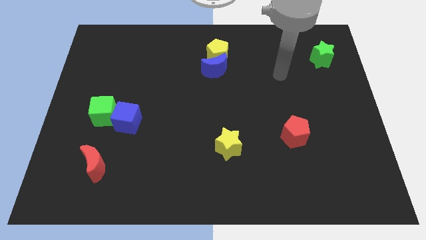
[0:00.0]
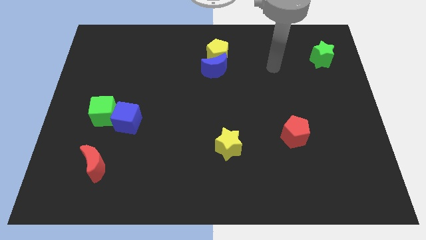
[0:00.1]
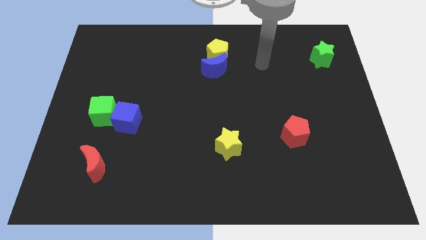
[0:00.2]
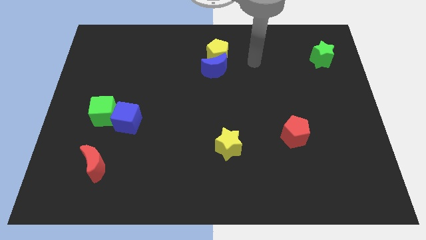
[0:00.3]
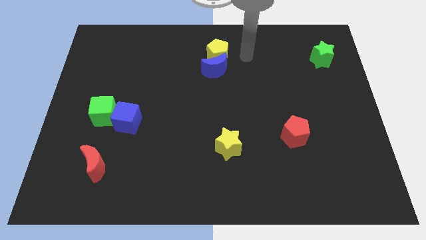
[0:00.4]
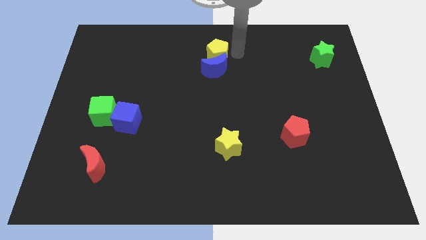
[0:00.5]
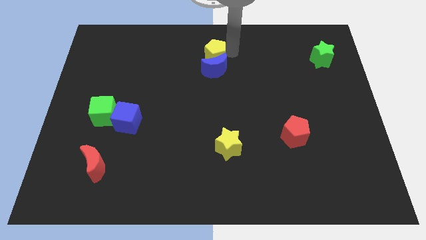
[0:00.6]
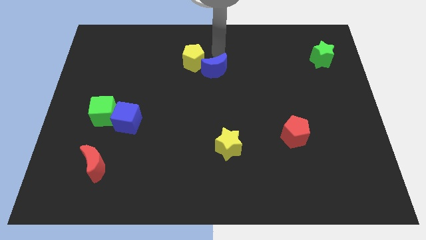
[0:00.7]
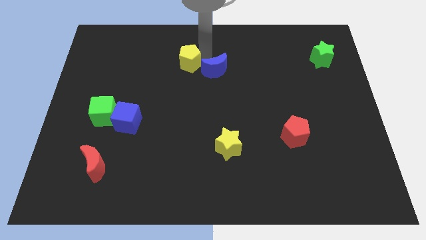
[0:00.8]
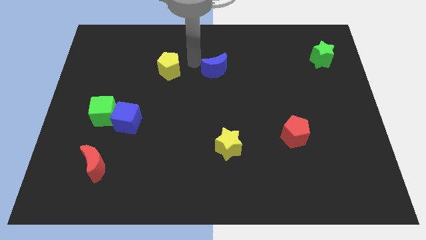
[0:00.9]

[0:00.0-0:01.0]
move the blue moon away from the yellow pentagon

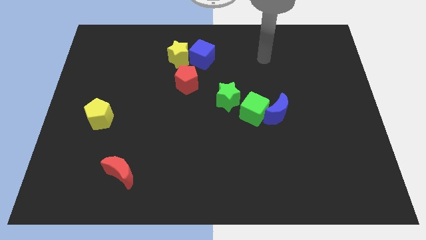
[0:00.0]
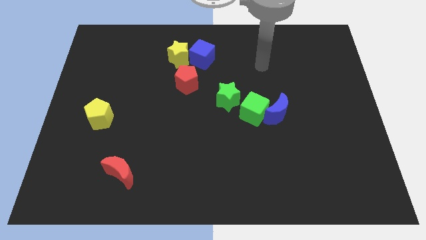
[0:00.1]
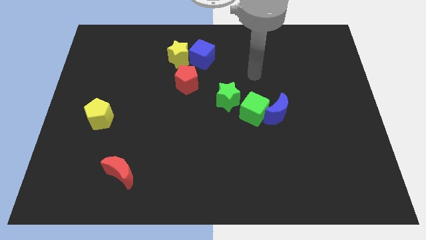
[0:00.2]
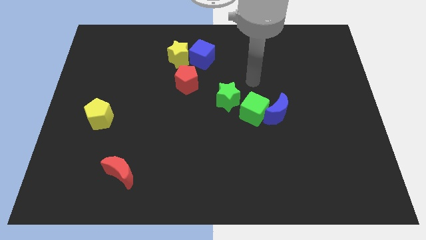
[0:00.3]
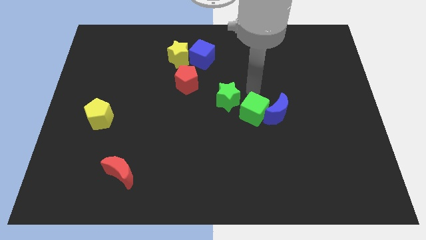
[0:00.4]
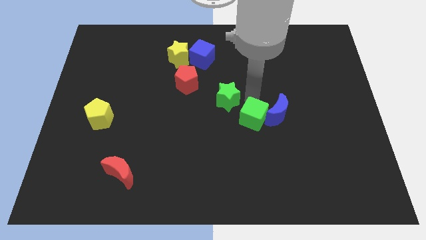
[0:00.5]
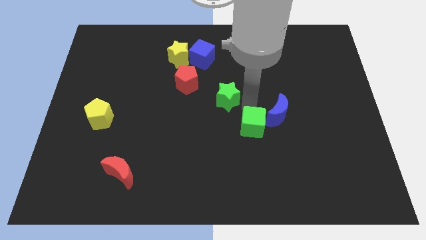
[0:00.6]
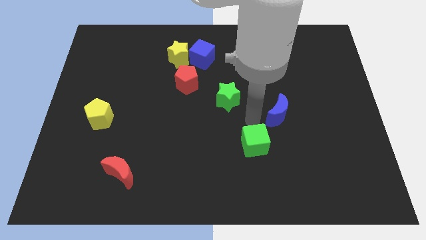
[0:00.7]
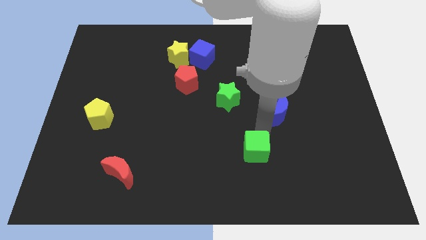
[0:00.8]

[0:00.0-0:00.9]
move the blue moon away from the green cube

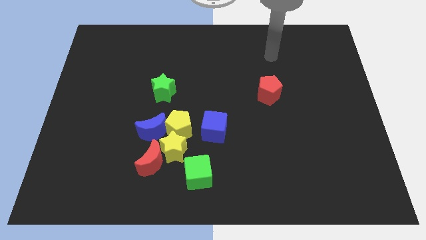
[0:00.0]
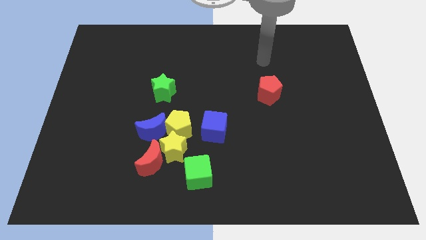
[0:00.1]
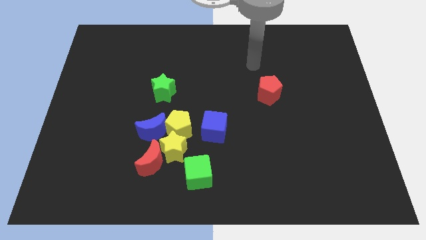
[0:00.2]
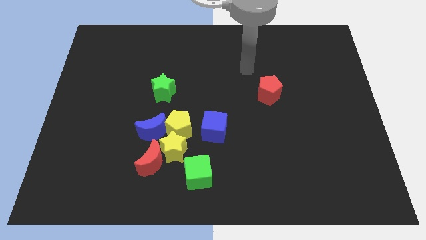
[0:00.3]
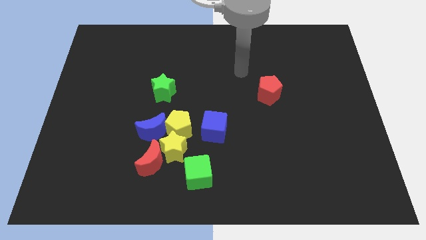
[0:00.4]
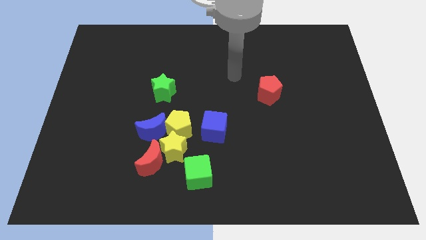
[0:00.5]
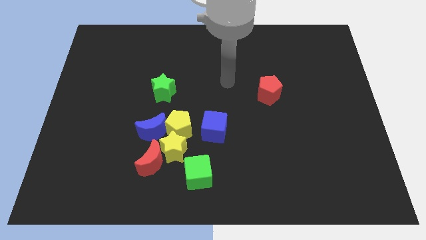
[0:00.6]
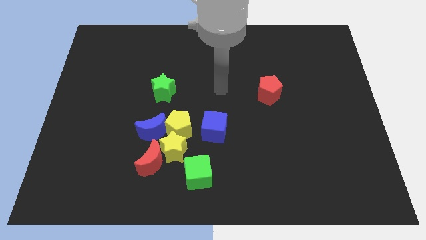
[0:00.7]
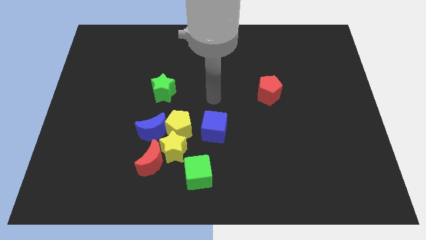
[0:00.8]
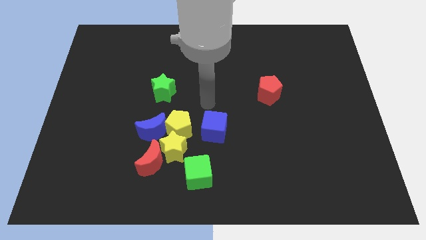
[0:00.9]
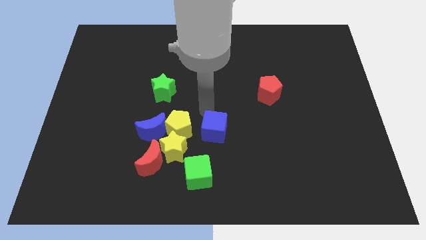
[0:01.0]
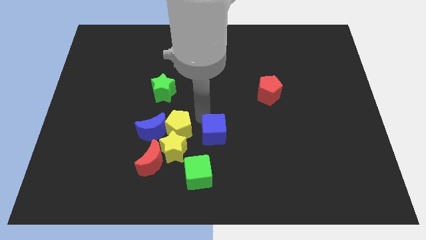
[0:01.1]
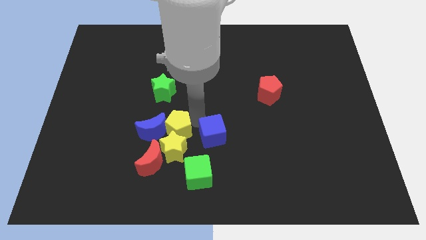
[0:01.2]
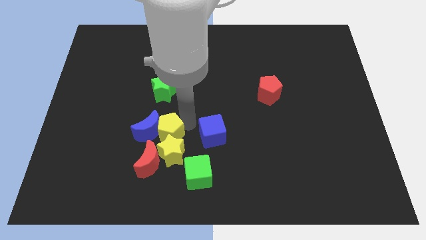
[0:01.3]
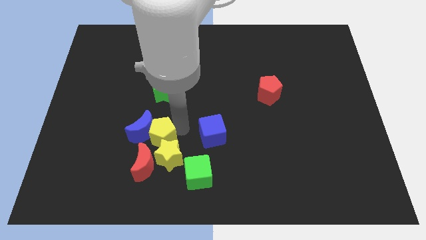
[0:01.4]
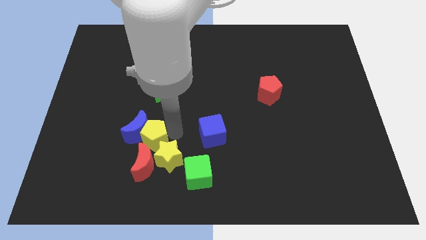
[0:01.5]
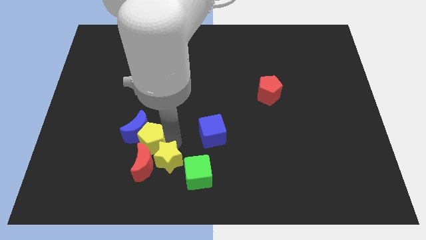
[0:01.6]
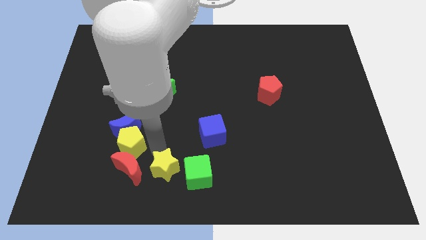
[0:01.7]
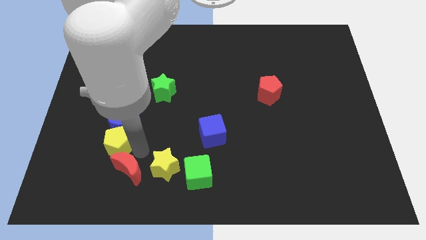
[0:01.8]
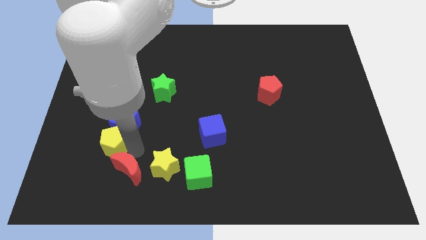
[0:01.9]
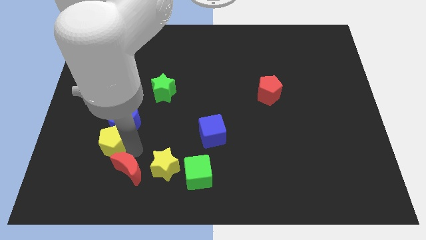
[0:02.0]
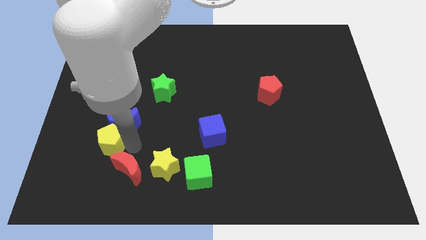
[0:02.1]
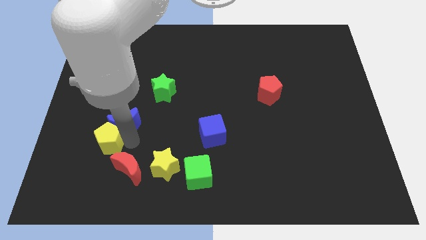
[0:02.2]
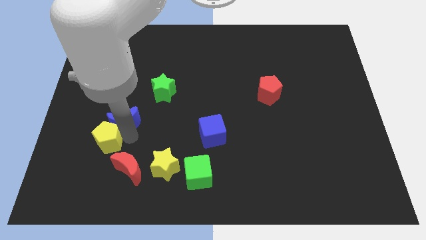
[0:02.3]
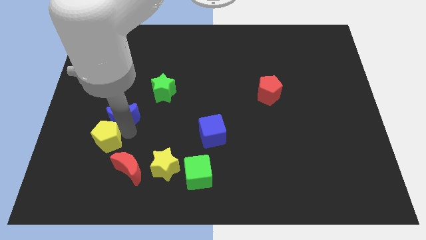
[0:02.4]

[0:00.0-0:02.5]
pull the blue moon apart from the yellow pentagon, yellow star, and red moon

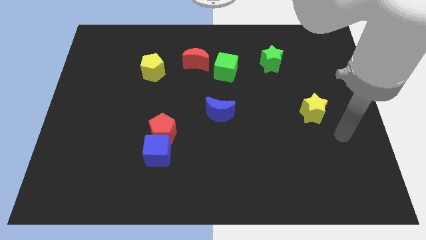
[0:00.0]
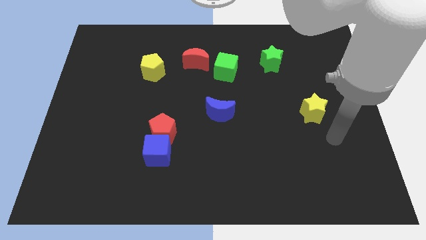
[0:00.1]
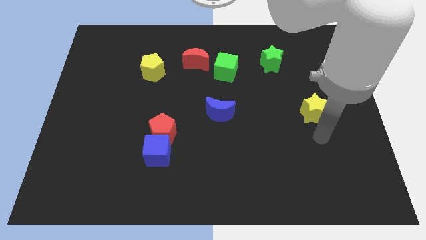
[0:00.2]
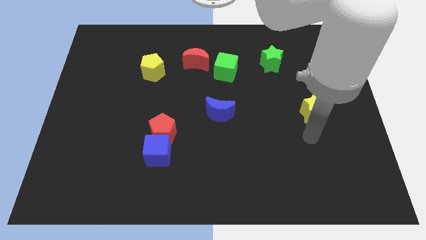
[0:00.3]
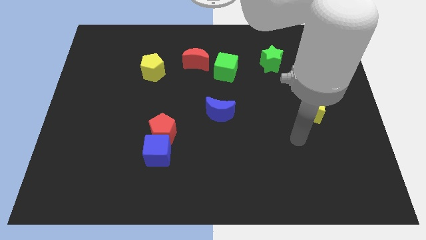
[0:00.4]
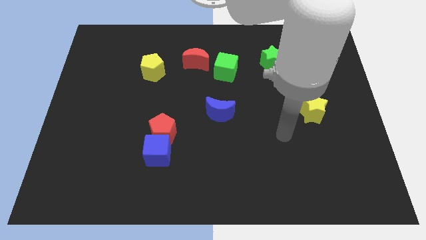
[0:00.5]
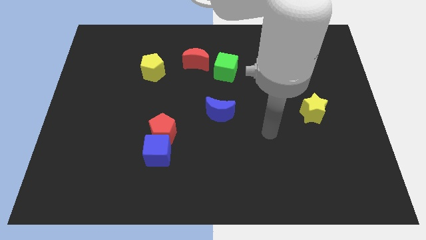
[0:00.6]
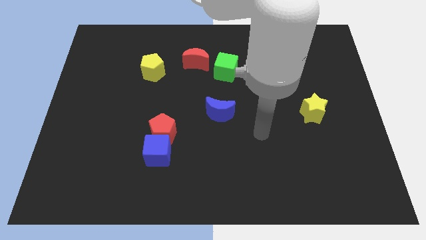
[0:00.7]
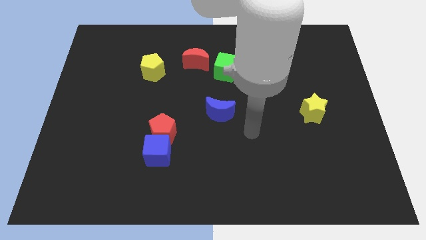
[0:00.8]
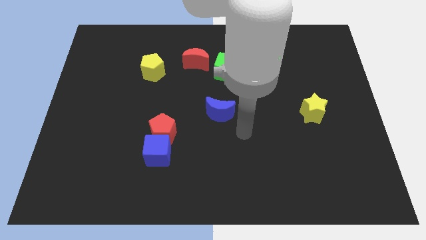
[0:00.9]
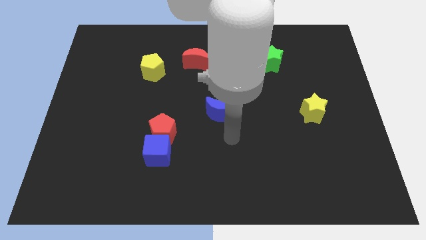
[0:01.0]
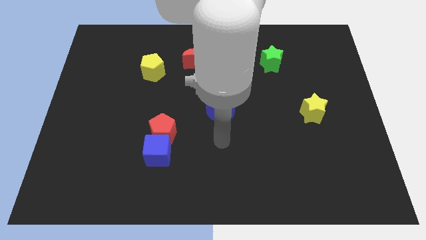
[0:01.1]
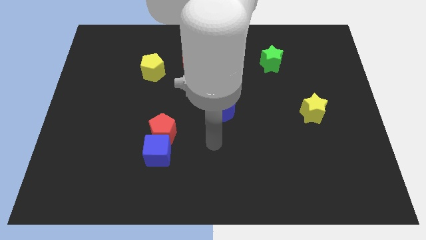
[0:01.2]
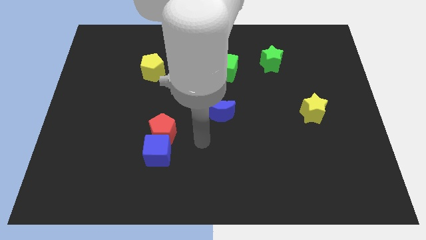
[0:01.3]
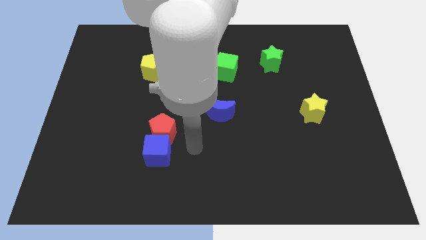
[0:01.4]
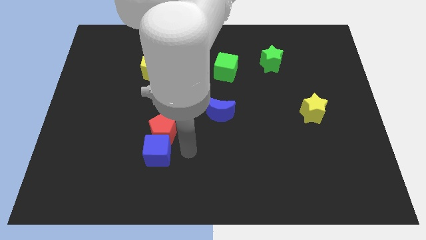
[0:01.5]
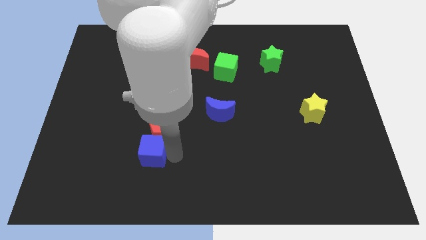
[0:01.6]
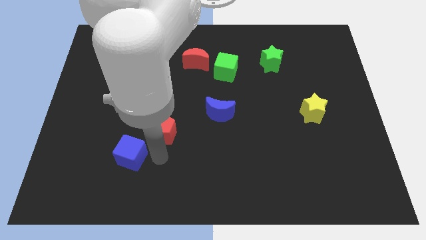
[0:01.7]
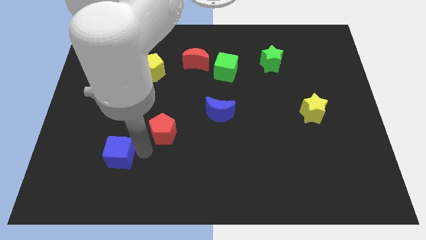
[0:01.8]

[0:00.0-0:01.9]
pull the red pentagon apart from the blue cube

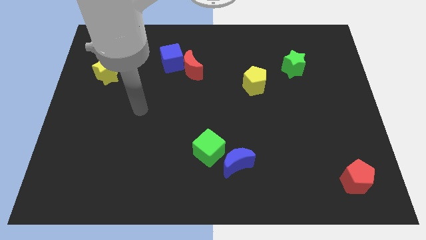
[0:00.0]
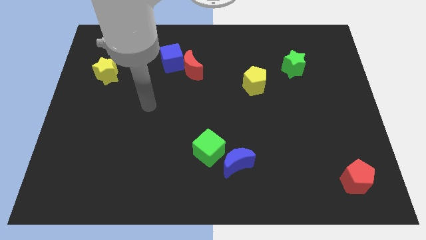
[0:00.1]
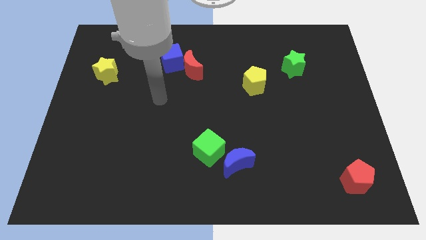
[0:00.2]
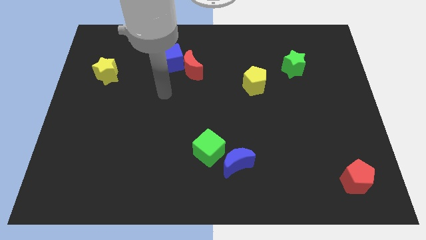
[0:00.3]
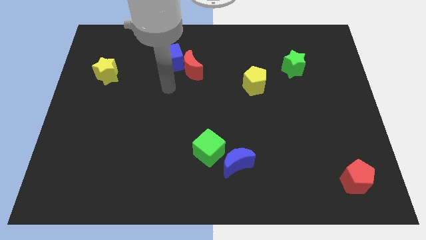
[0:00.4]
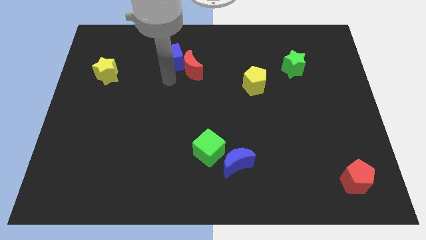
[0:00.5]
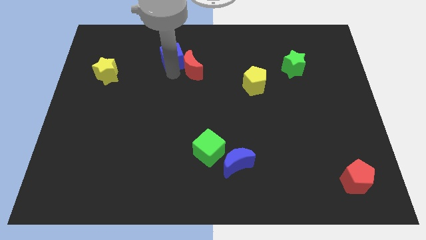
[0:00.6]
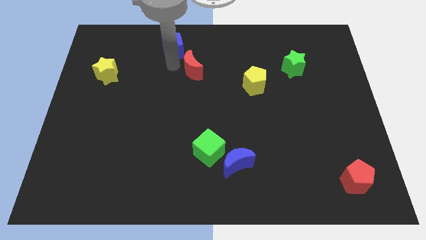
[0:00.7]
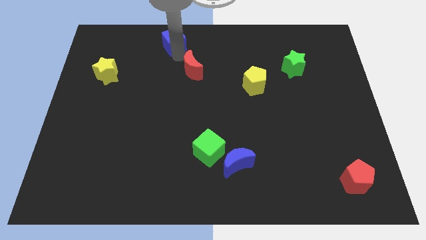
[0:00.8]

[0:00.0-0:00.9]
move the red moon away from the blue cube

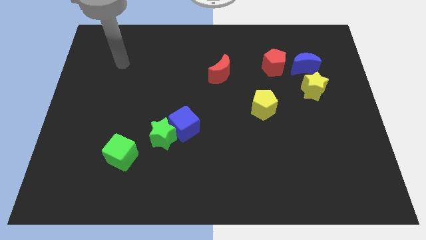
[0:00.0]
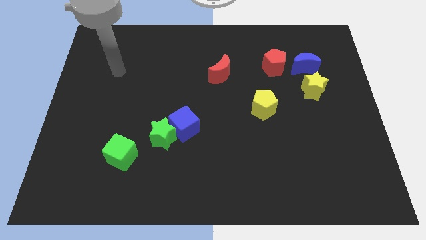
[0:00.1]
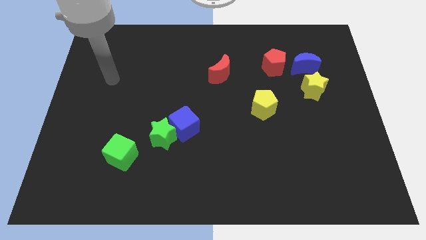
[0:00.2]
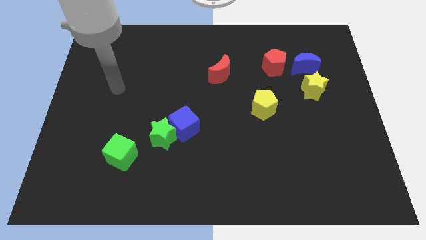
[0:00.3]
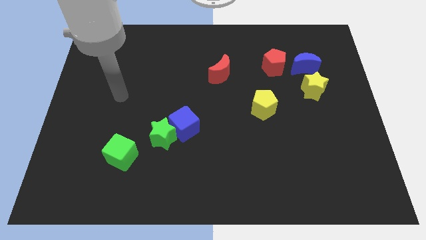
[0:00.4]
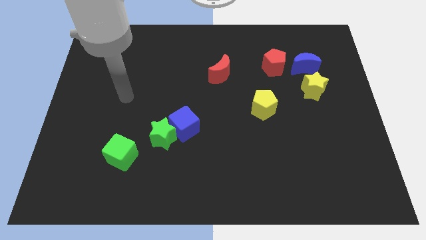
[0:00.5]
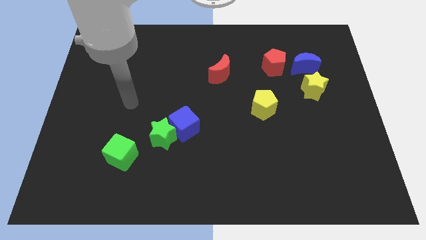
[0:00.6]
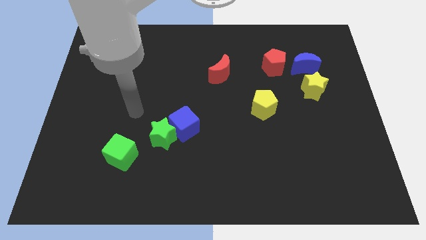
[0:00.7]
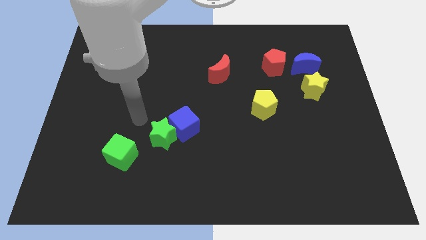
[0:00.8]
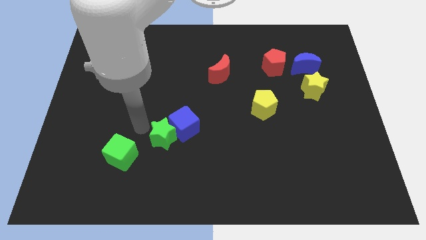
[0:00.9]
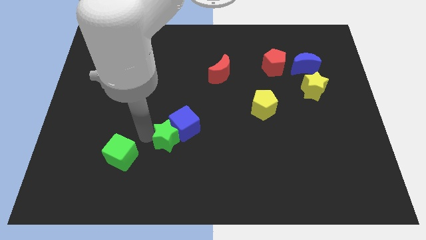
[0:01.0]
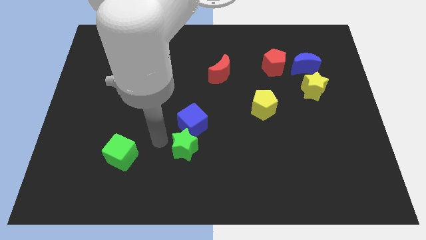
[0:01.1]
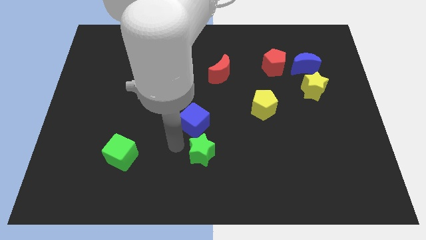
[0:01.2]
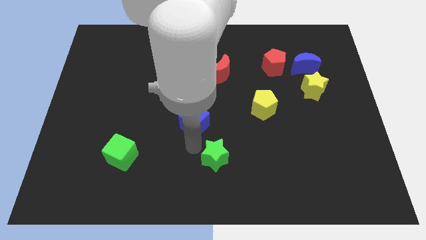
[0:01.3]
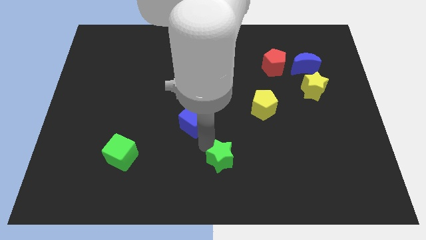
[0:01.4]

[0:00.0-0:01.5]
pull the blue cube apart from the green star

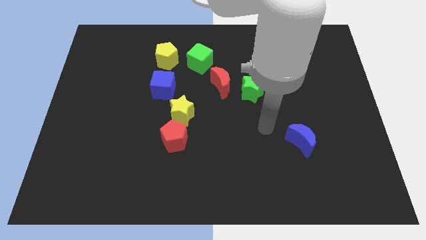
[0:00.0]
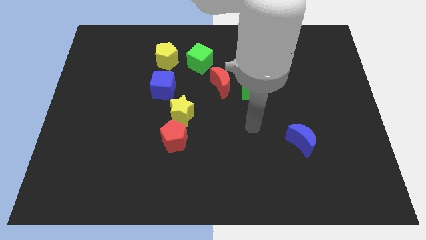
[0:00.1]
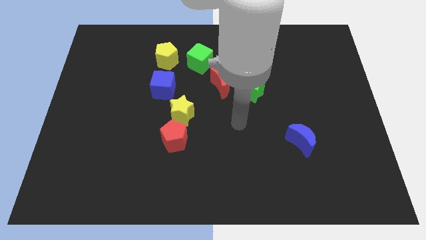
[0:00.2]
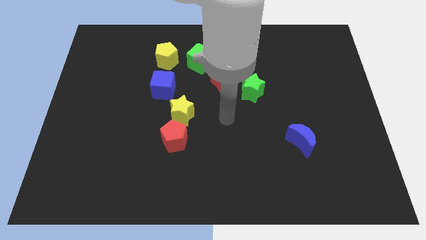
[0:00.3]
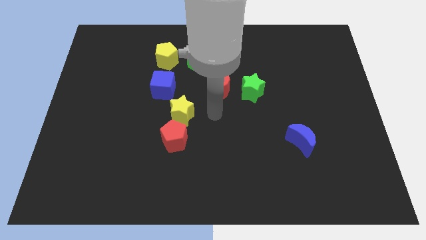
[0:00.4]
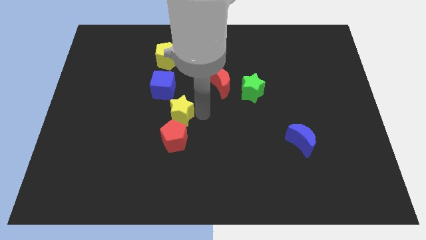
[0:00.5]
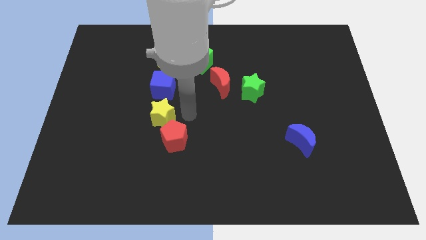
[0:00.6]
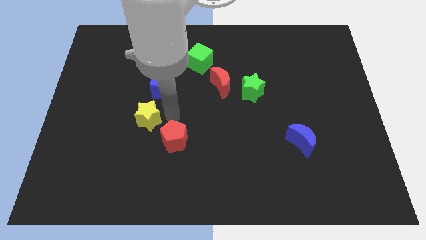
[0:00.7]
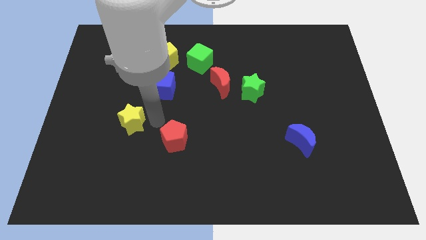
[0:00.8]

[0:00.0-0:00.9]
pull the red pentagon apart from the yellow star
